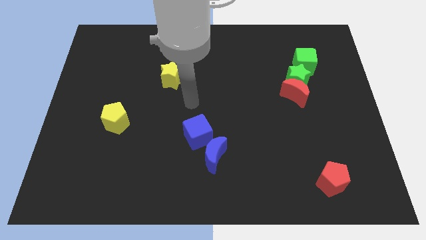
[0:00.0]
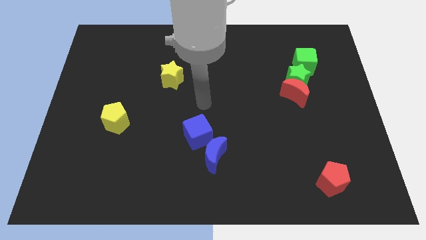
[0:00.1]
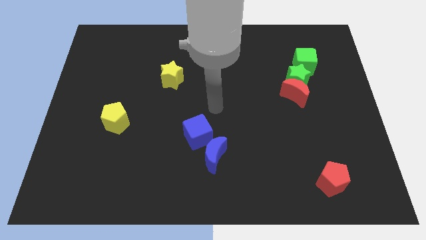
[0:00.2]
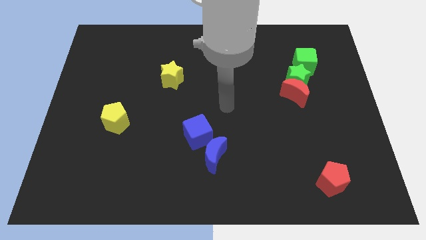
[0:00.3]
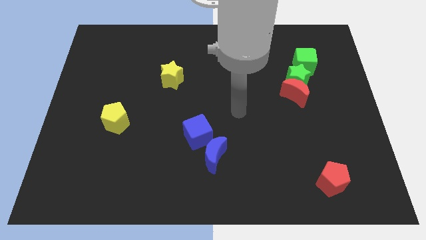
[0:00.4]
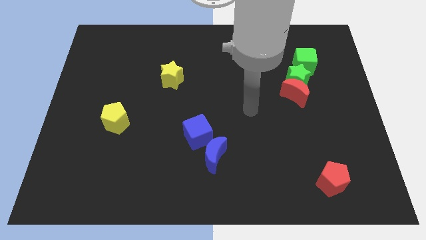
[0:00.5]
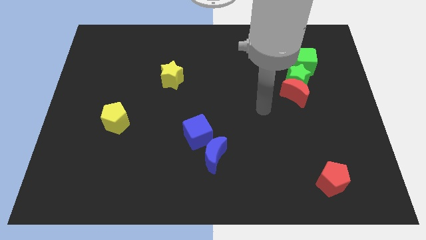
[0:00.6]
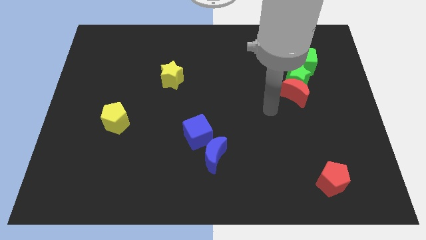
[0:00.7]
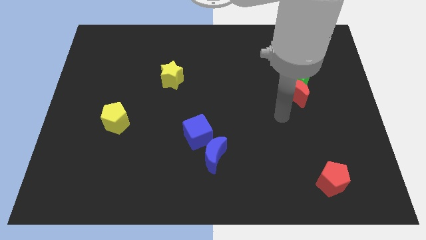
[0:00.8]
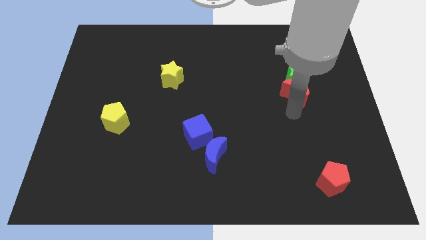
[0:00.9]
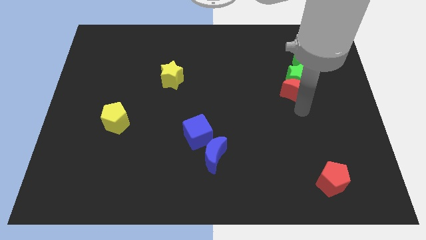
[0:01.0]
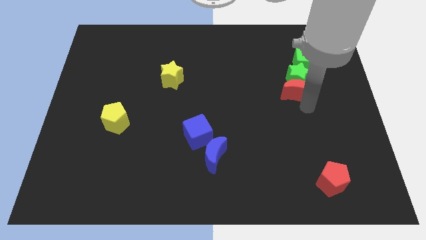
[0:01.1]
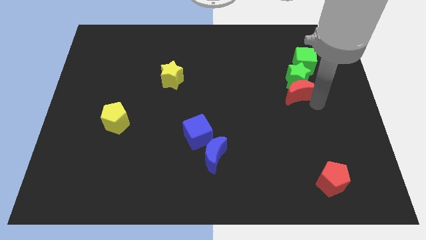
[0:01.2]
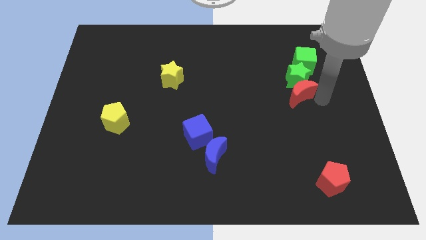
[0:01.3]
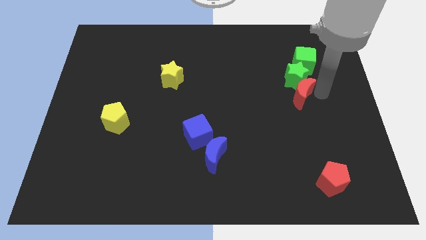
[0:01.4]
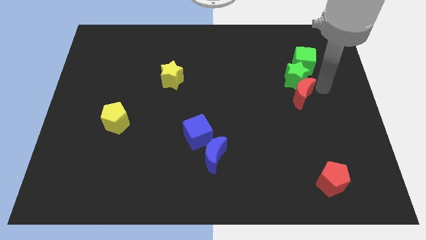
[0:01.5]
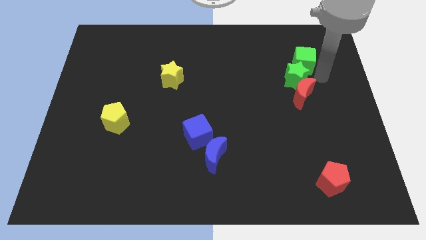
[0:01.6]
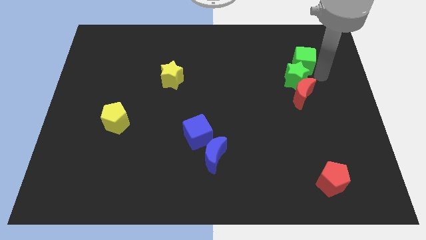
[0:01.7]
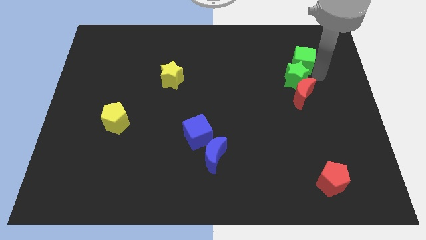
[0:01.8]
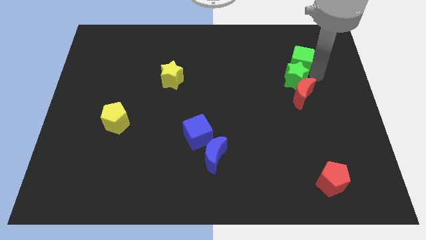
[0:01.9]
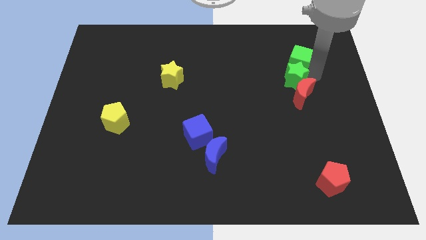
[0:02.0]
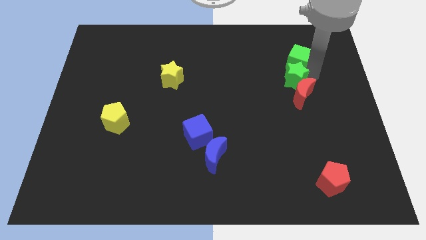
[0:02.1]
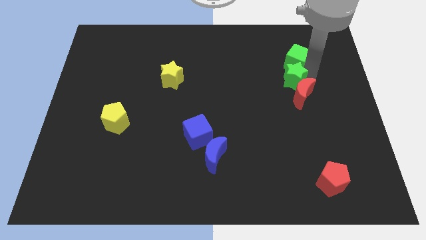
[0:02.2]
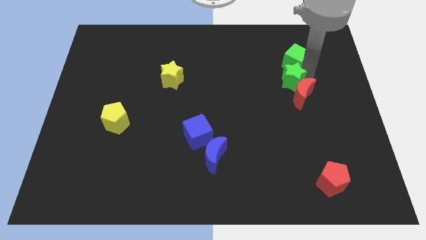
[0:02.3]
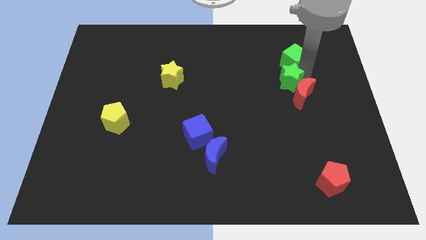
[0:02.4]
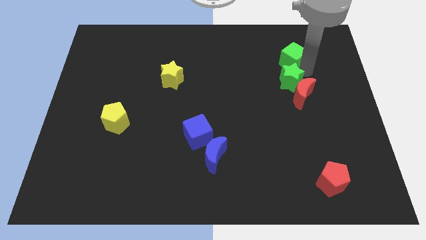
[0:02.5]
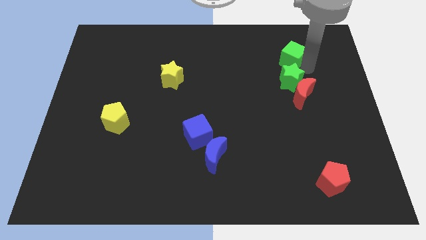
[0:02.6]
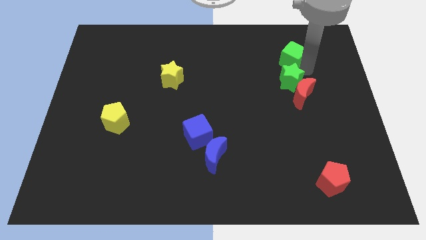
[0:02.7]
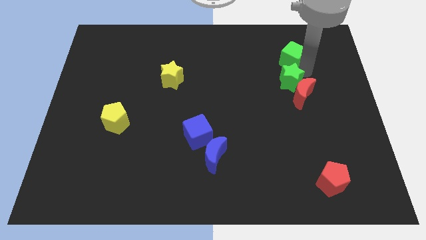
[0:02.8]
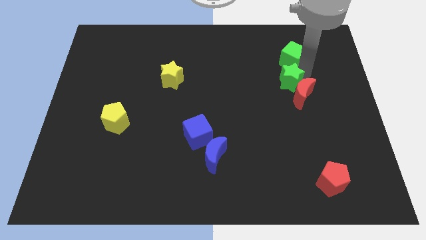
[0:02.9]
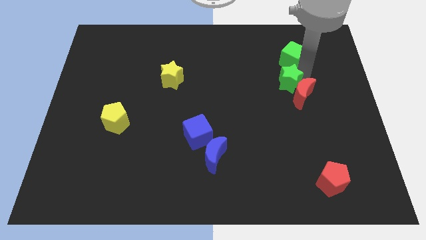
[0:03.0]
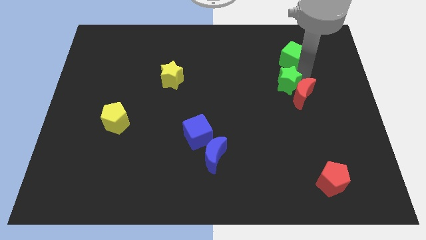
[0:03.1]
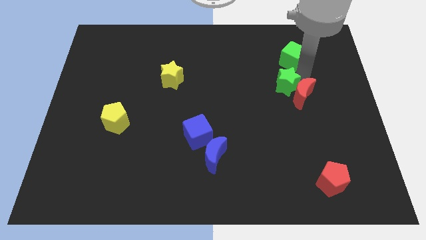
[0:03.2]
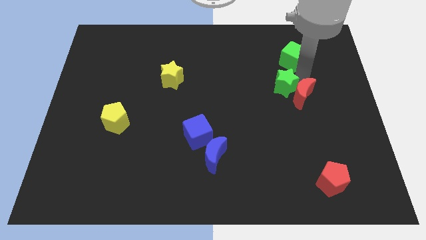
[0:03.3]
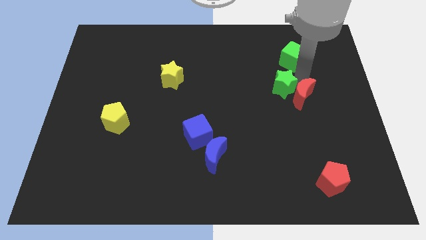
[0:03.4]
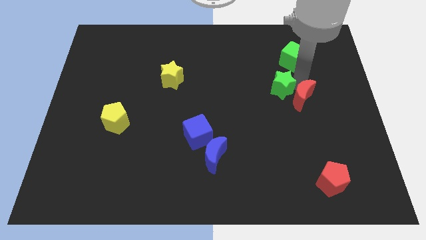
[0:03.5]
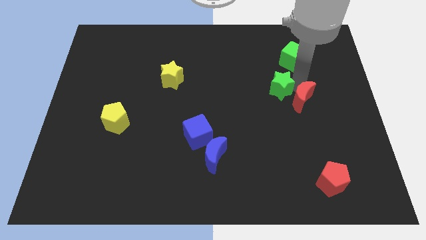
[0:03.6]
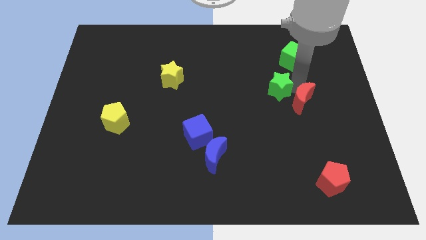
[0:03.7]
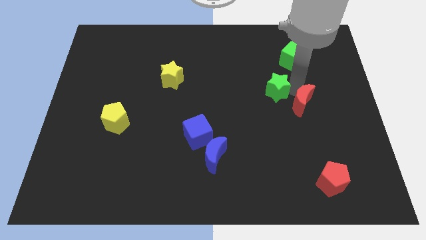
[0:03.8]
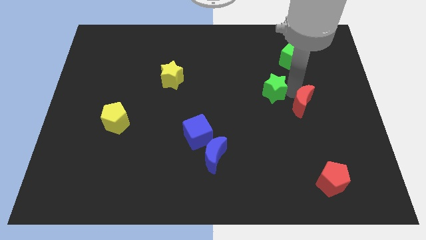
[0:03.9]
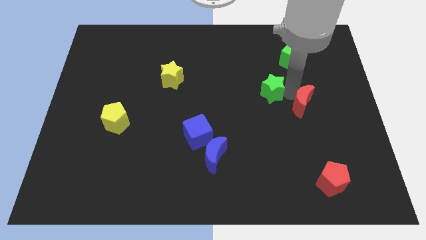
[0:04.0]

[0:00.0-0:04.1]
slide the green star diagonally downwards and left slightly

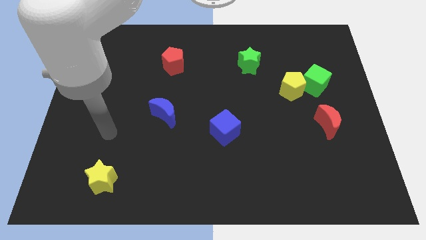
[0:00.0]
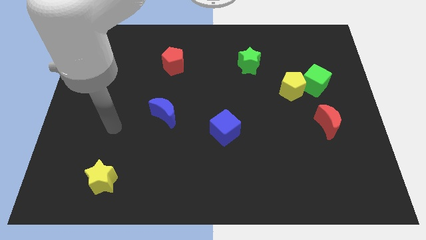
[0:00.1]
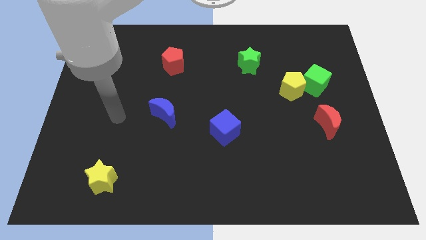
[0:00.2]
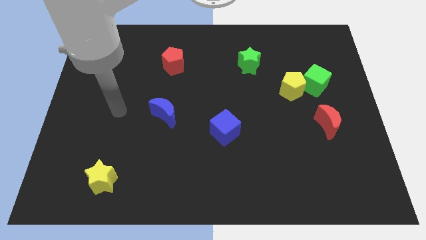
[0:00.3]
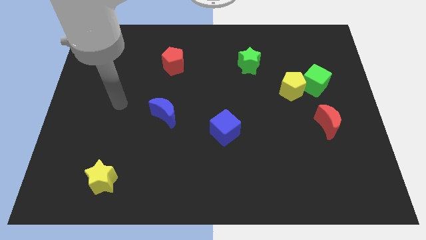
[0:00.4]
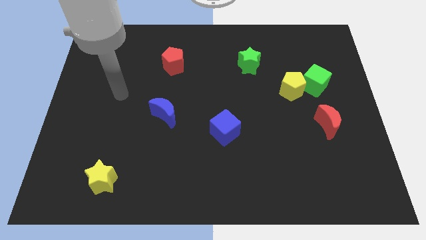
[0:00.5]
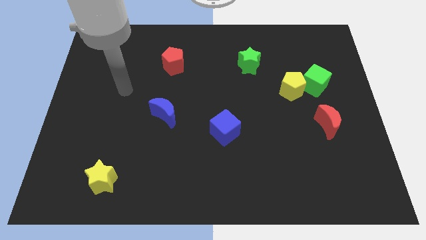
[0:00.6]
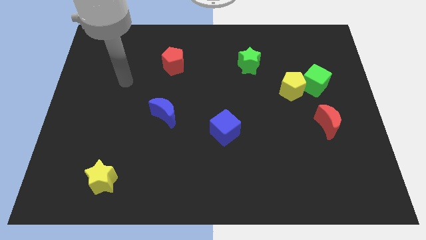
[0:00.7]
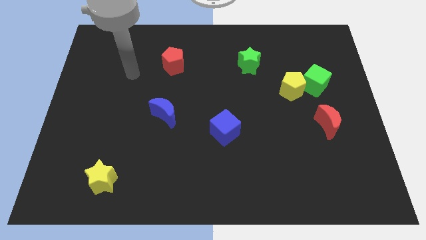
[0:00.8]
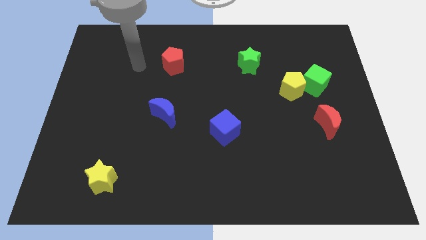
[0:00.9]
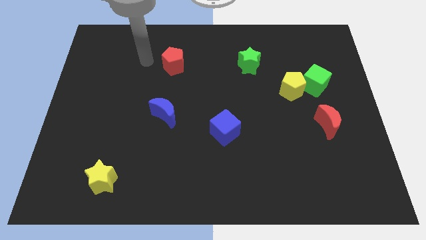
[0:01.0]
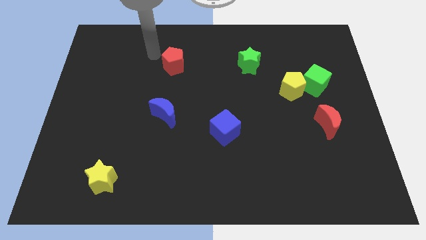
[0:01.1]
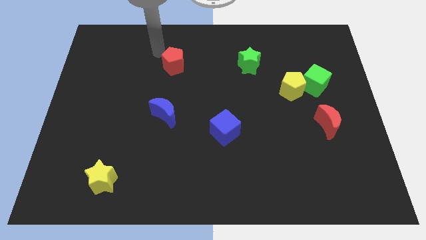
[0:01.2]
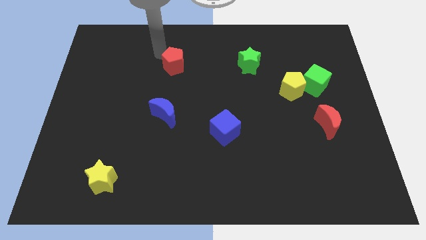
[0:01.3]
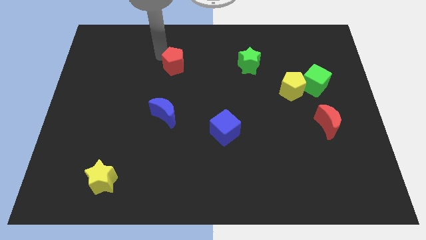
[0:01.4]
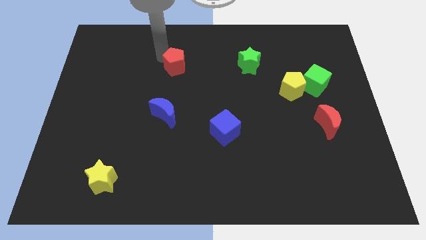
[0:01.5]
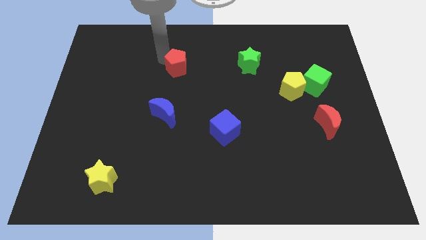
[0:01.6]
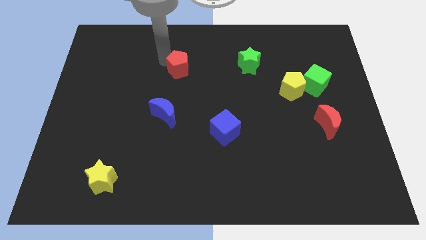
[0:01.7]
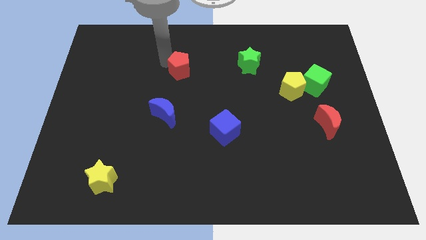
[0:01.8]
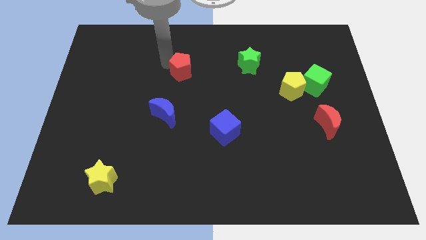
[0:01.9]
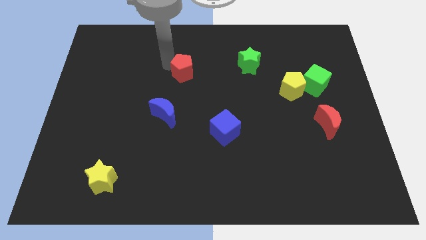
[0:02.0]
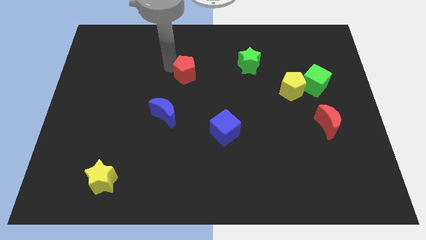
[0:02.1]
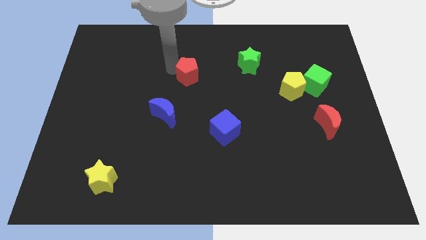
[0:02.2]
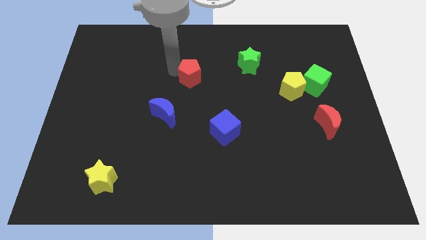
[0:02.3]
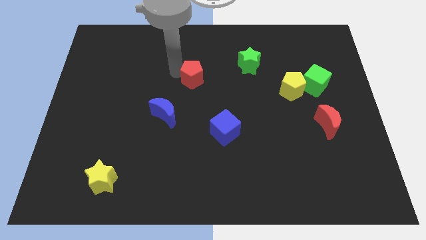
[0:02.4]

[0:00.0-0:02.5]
slightly push the red pentagon diagonally downwards and right

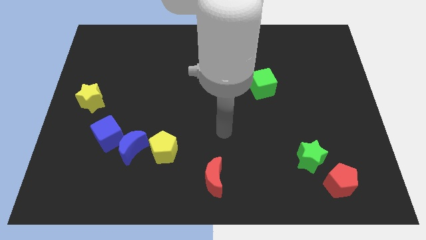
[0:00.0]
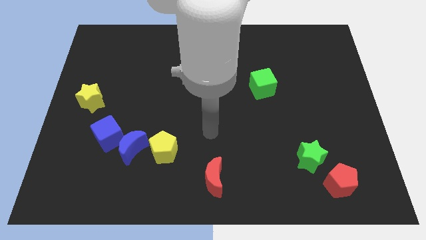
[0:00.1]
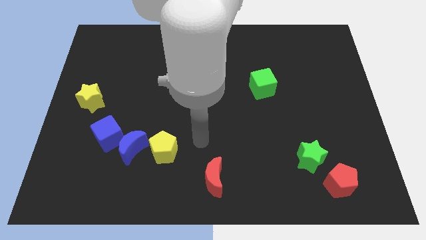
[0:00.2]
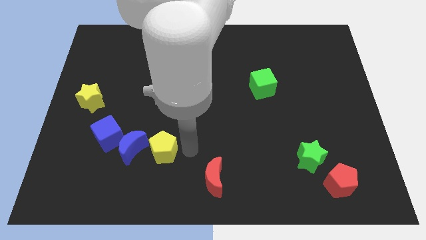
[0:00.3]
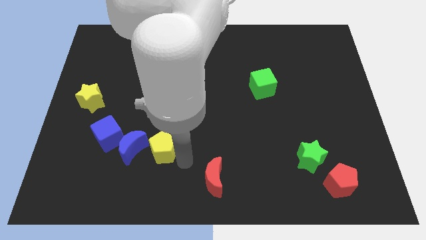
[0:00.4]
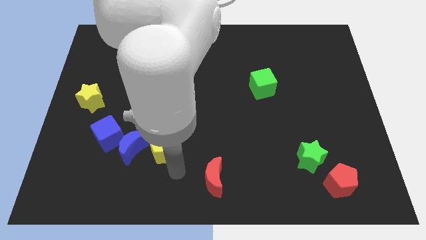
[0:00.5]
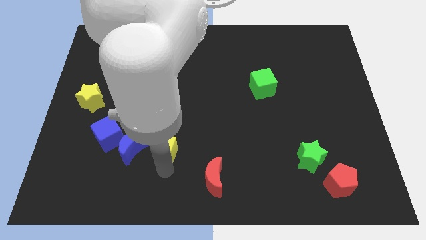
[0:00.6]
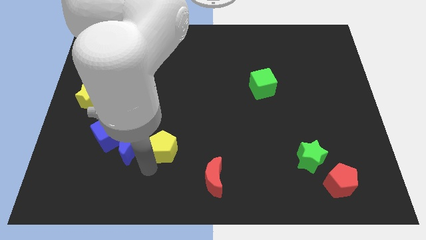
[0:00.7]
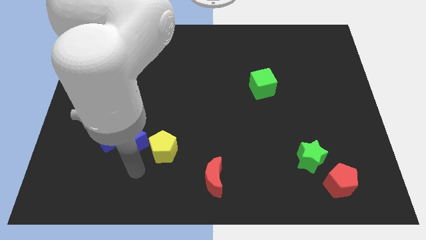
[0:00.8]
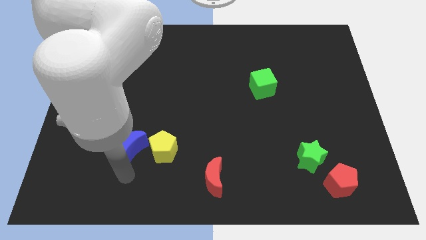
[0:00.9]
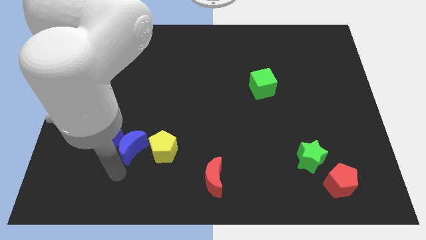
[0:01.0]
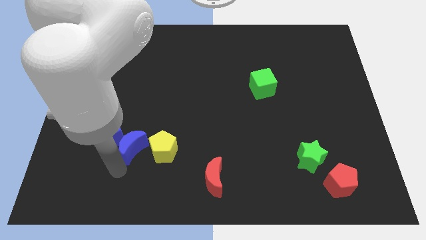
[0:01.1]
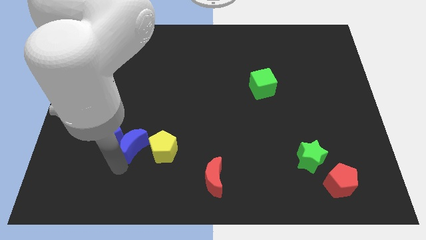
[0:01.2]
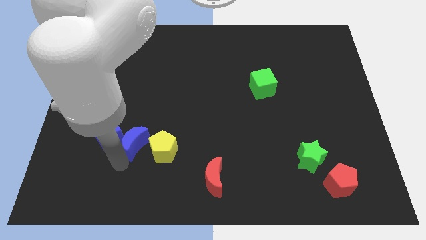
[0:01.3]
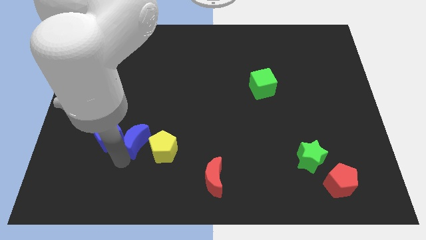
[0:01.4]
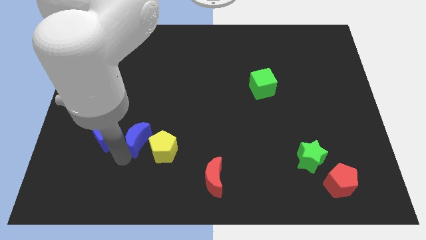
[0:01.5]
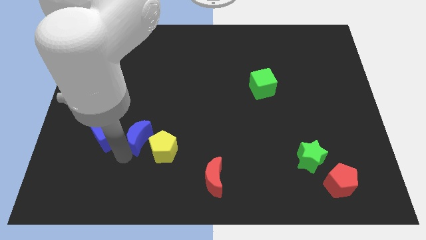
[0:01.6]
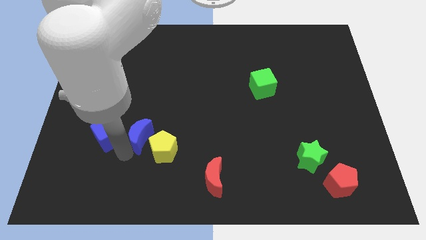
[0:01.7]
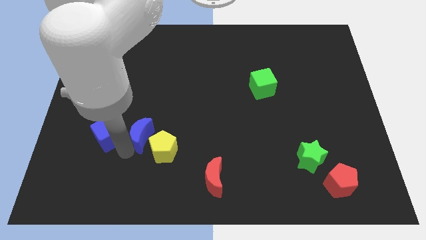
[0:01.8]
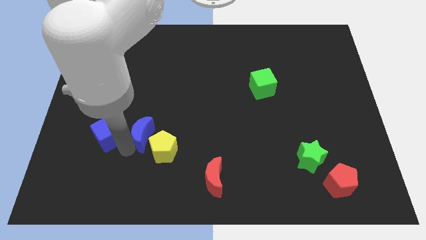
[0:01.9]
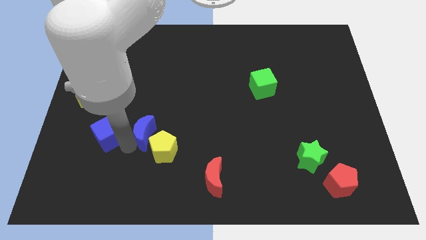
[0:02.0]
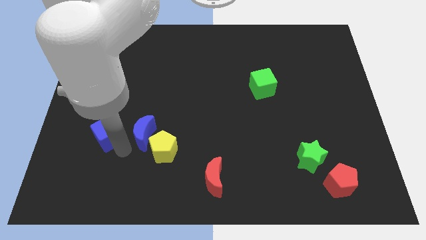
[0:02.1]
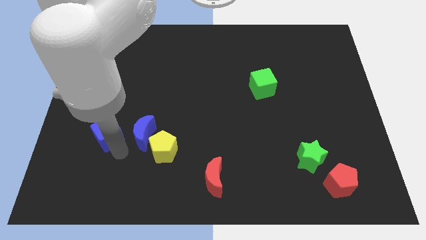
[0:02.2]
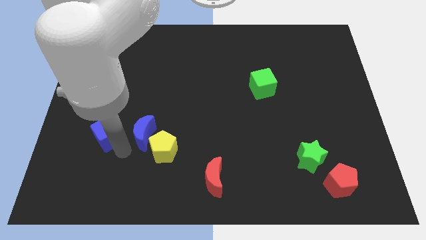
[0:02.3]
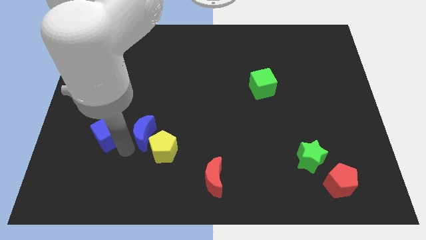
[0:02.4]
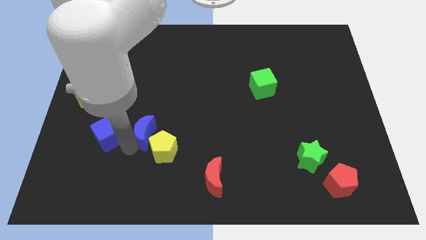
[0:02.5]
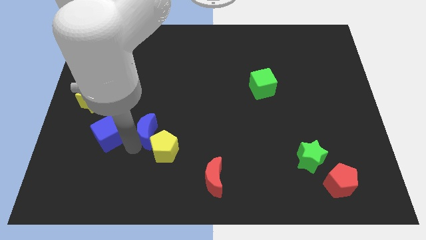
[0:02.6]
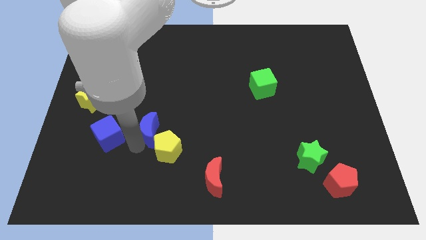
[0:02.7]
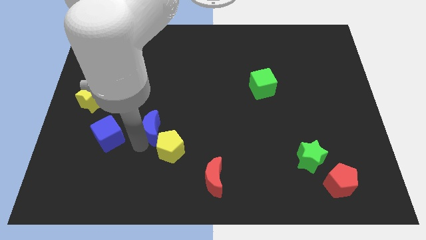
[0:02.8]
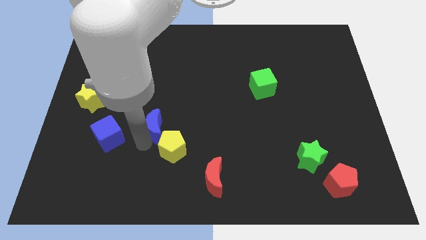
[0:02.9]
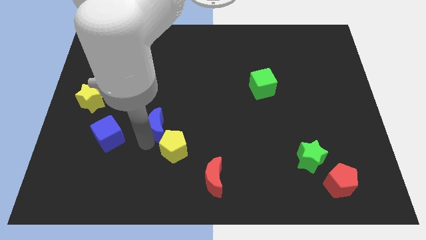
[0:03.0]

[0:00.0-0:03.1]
push the blue moon slightly diagonally upwards and right
